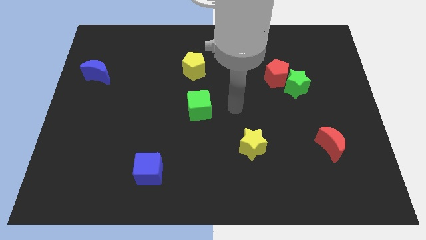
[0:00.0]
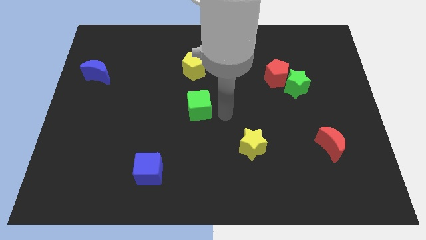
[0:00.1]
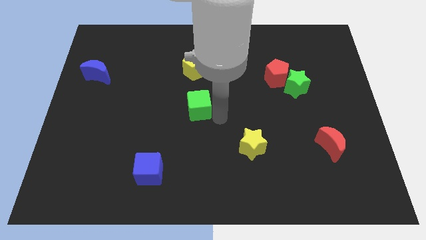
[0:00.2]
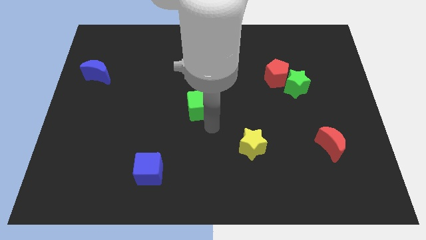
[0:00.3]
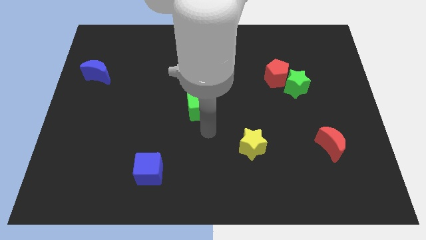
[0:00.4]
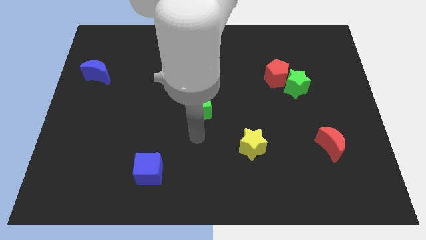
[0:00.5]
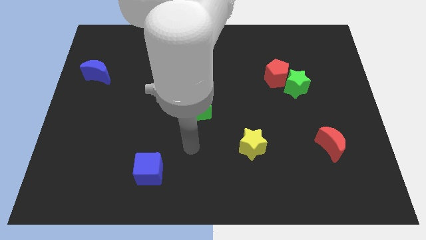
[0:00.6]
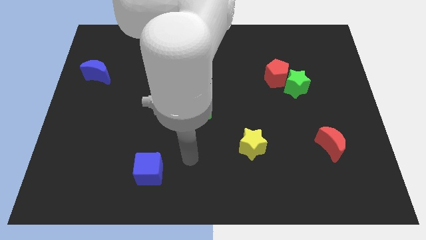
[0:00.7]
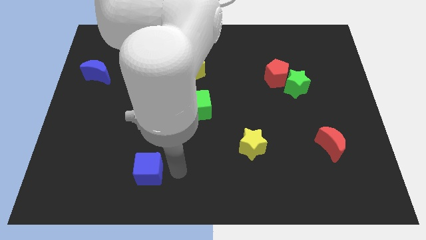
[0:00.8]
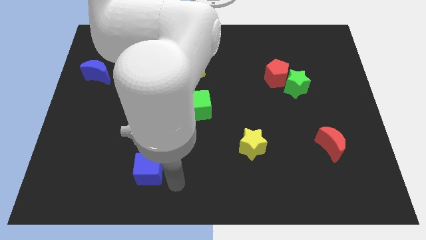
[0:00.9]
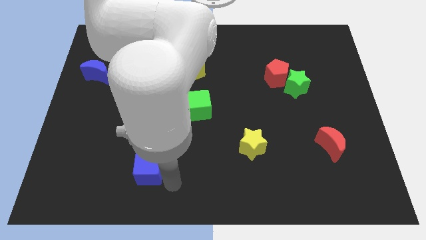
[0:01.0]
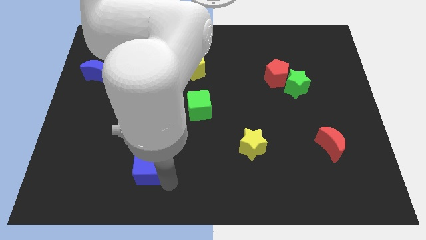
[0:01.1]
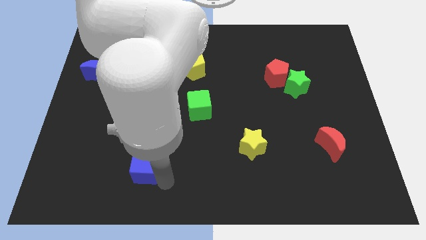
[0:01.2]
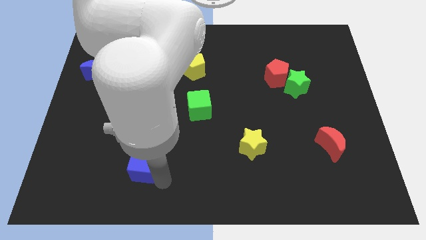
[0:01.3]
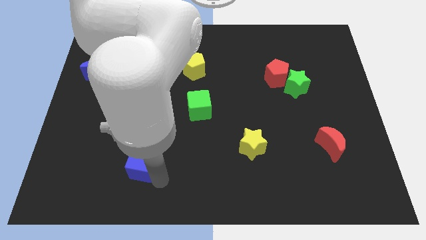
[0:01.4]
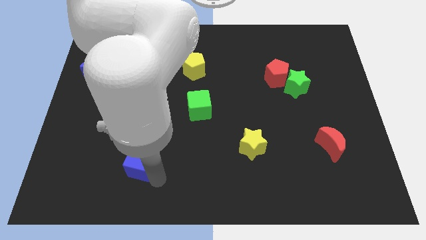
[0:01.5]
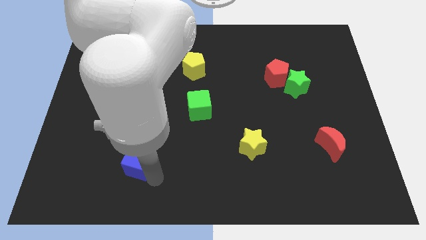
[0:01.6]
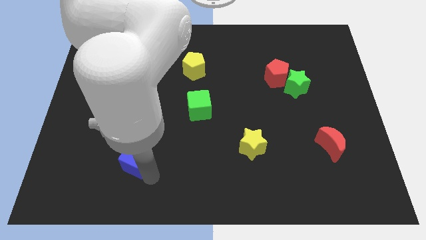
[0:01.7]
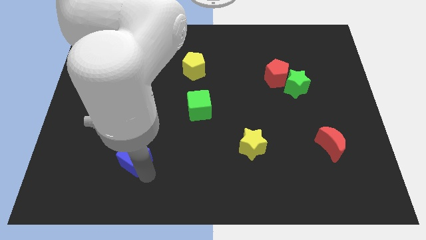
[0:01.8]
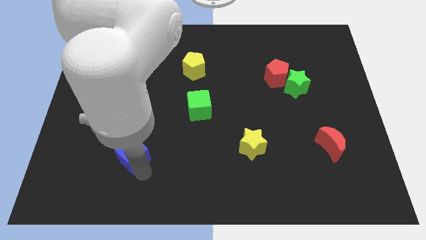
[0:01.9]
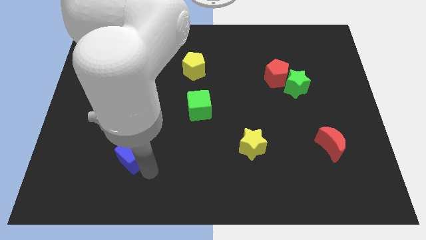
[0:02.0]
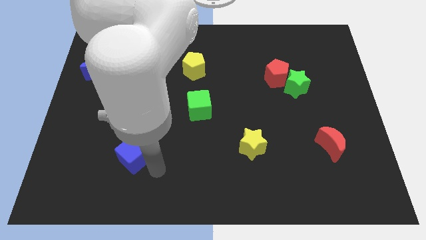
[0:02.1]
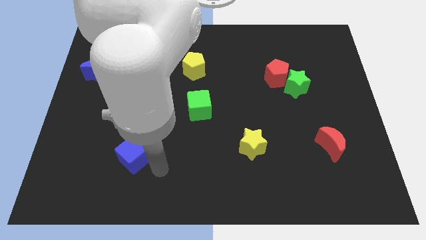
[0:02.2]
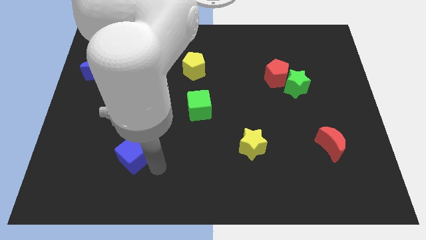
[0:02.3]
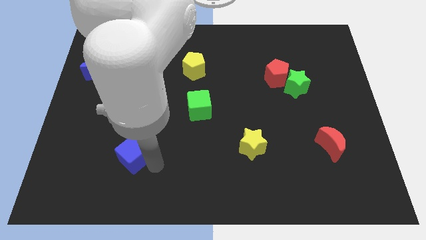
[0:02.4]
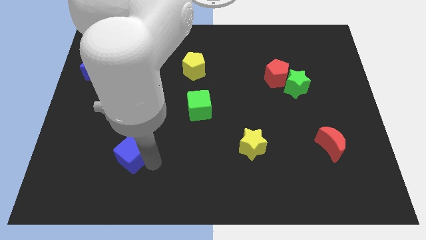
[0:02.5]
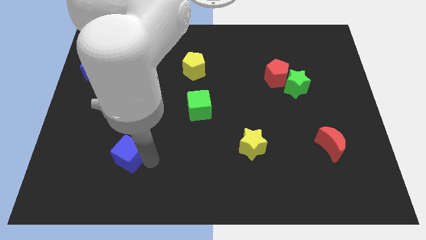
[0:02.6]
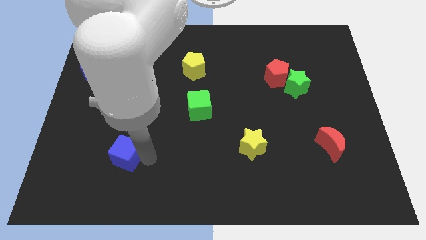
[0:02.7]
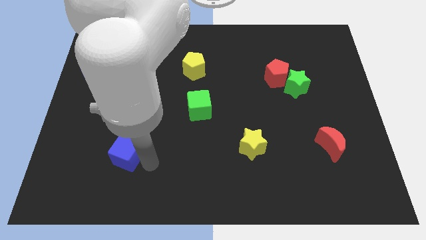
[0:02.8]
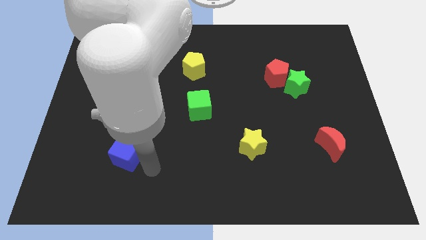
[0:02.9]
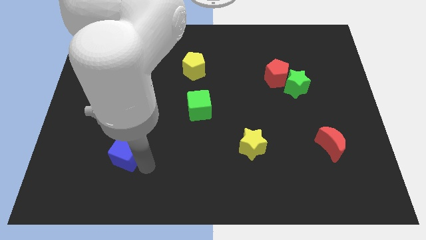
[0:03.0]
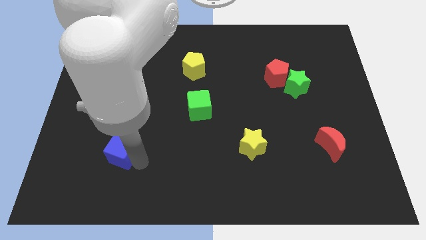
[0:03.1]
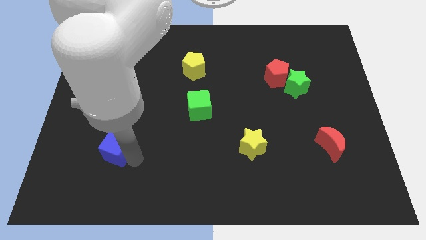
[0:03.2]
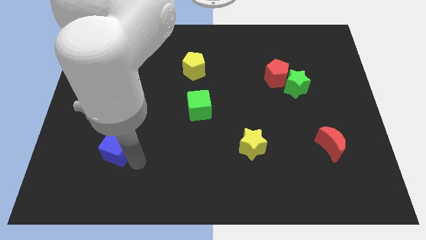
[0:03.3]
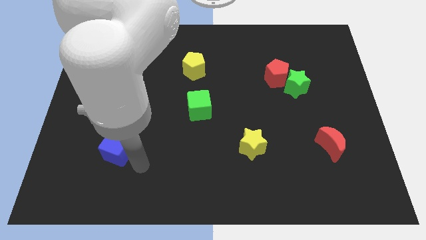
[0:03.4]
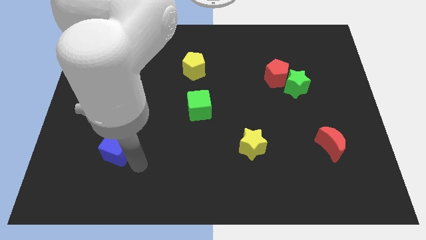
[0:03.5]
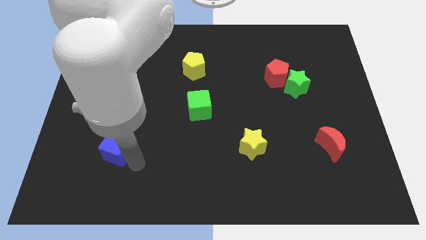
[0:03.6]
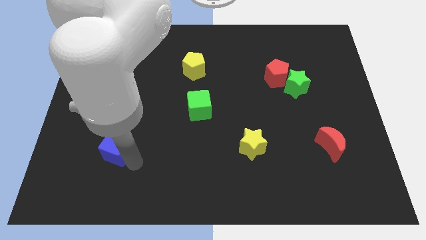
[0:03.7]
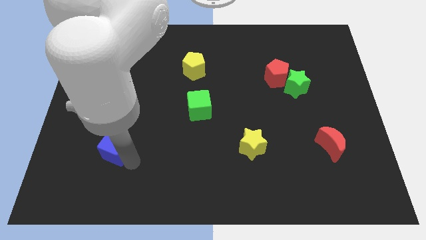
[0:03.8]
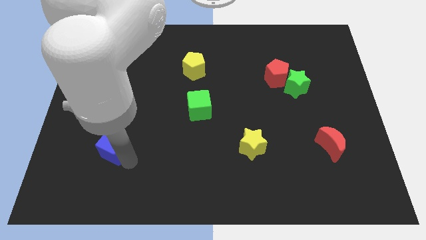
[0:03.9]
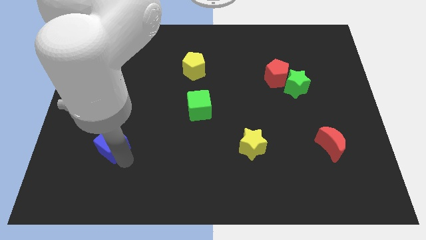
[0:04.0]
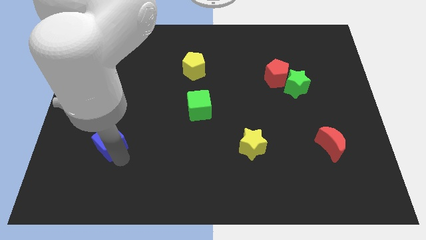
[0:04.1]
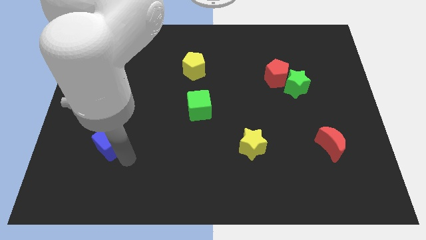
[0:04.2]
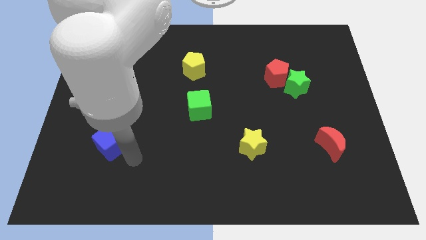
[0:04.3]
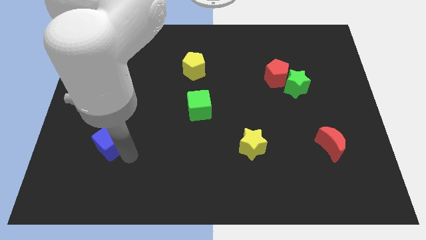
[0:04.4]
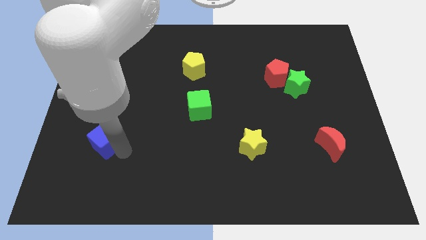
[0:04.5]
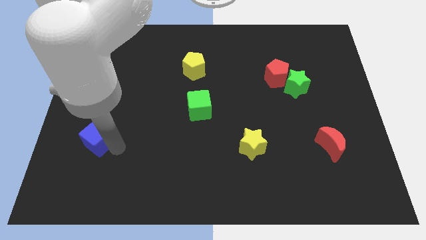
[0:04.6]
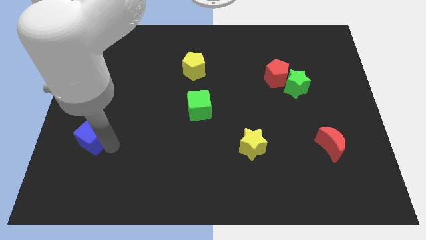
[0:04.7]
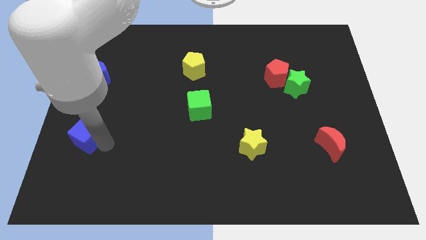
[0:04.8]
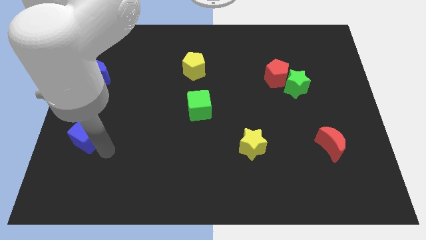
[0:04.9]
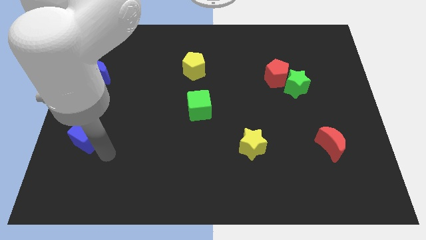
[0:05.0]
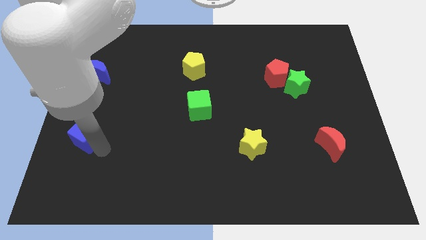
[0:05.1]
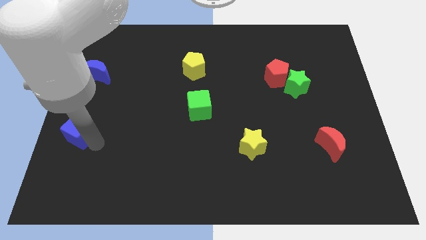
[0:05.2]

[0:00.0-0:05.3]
push the blue cube to the center left

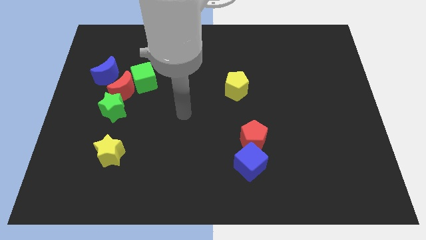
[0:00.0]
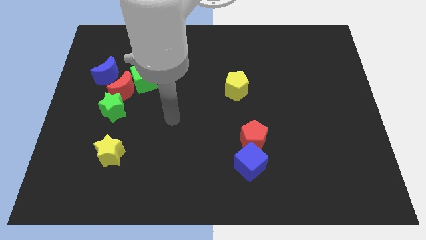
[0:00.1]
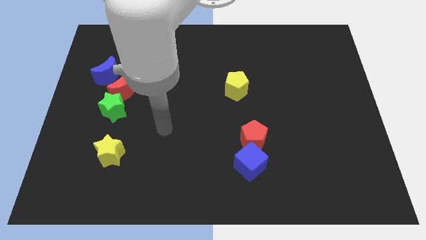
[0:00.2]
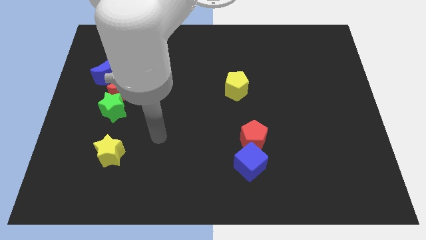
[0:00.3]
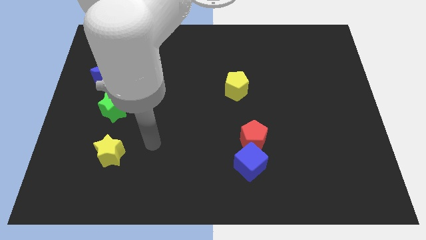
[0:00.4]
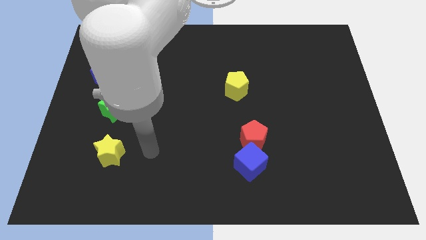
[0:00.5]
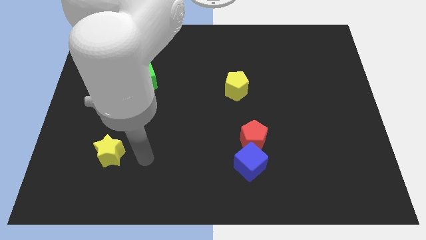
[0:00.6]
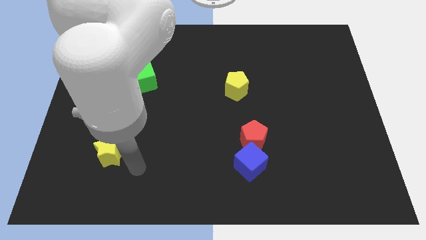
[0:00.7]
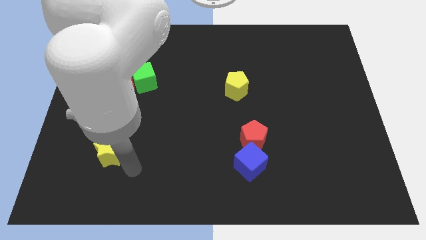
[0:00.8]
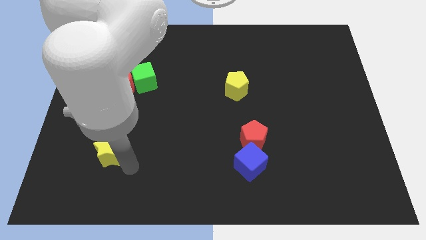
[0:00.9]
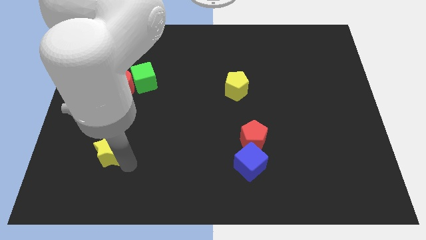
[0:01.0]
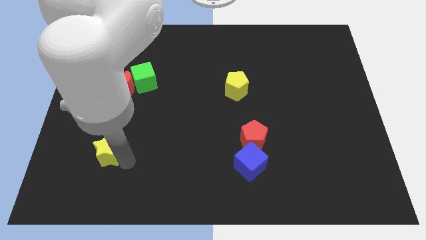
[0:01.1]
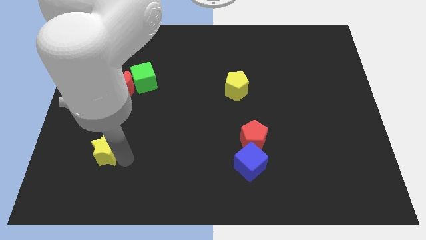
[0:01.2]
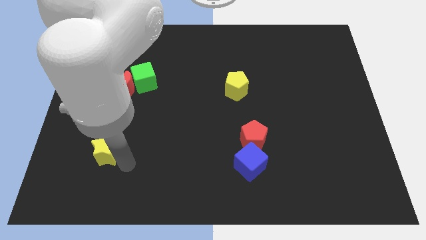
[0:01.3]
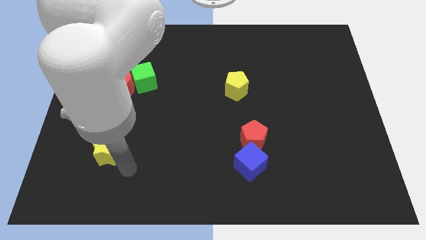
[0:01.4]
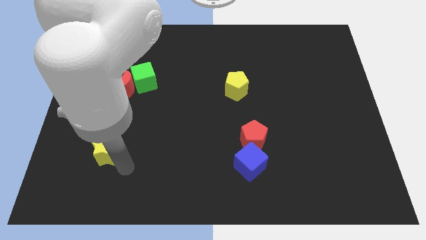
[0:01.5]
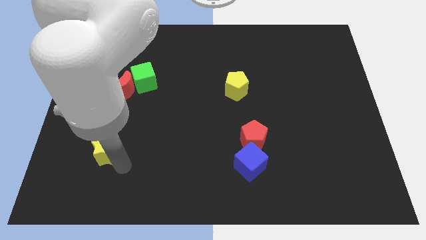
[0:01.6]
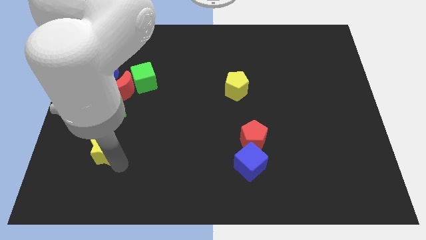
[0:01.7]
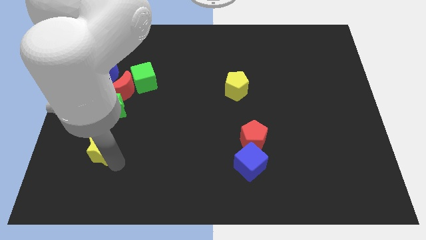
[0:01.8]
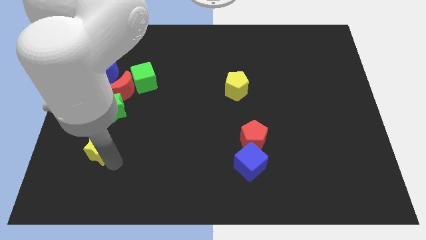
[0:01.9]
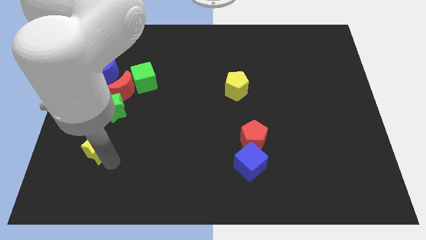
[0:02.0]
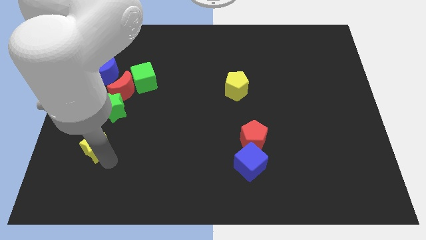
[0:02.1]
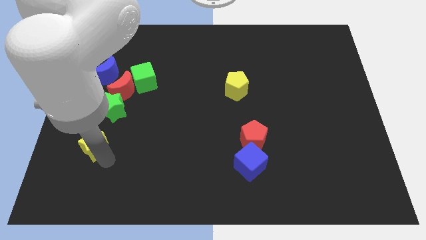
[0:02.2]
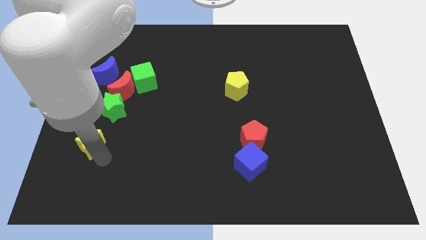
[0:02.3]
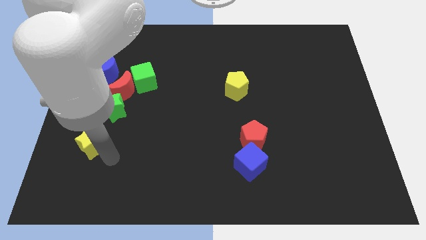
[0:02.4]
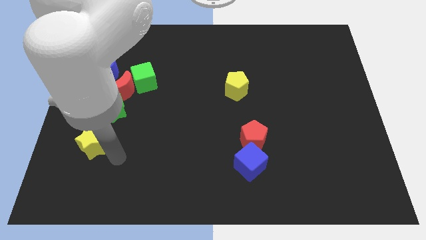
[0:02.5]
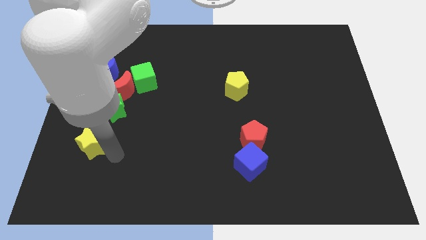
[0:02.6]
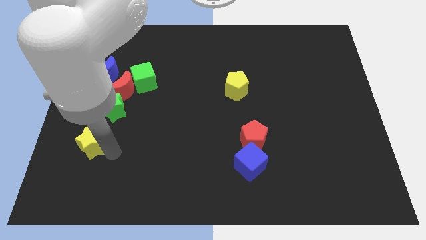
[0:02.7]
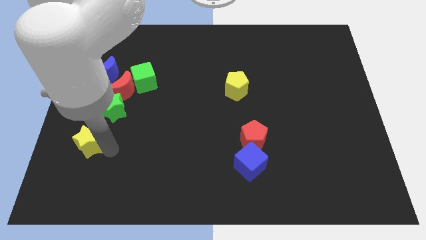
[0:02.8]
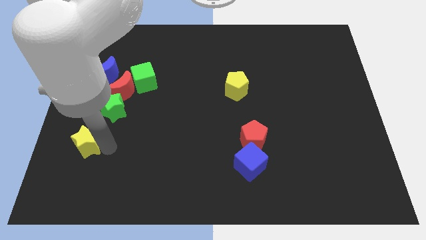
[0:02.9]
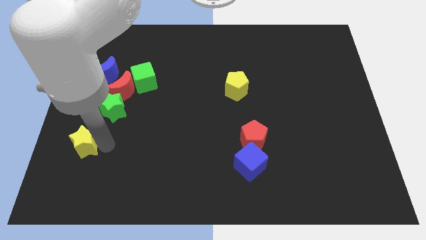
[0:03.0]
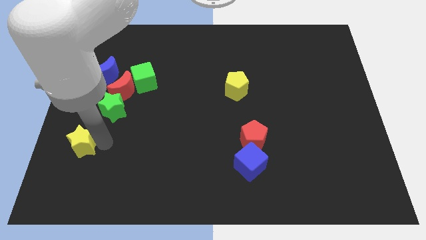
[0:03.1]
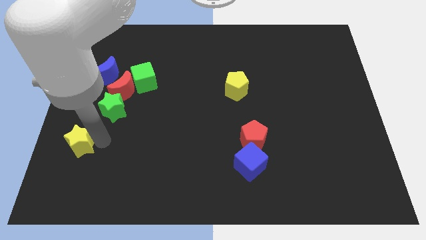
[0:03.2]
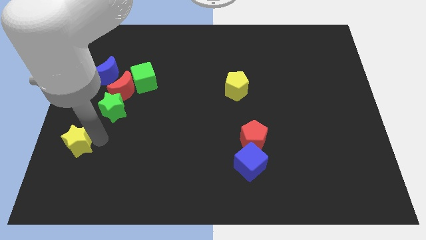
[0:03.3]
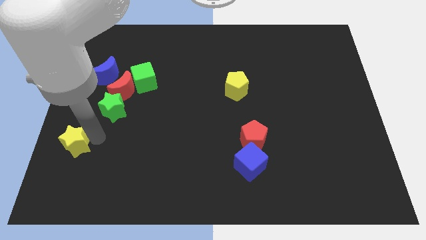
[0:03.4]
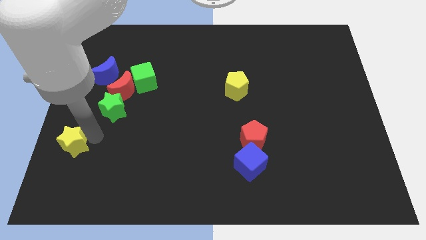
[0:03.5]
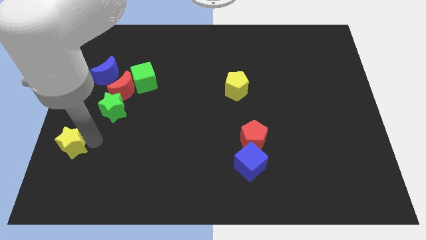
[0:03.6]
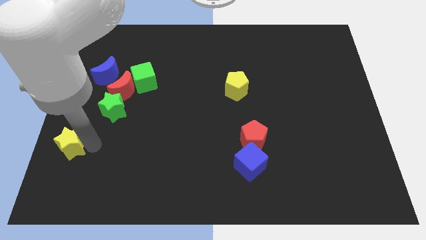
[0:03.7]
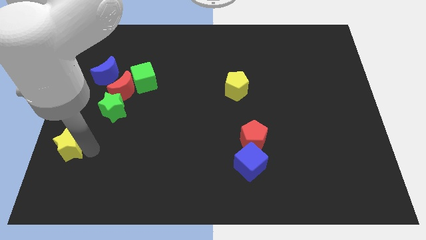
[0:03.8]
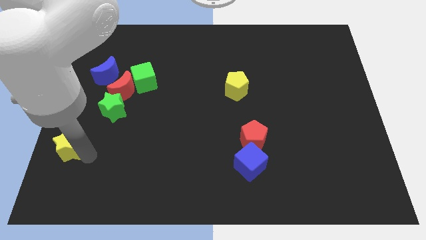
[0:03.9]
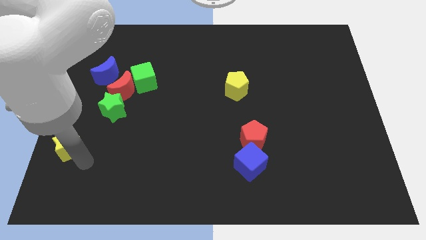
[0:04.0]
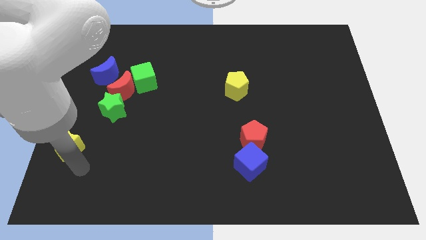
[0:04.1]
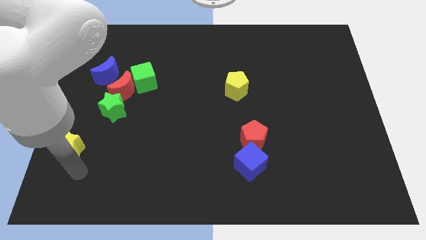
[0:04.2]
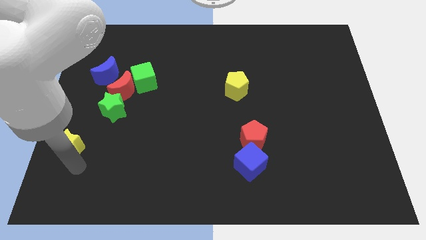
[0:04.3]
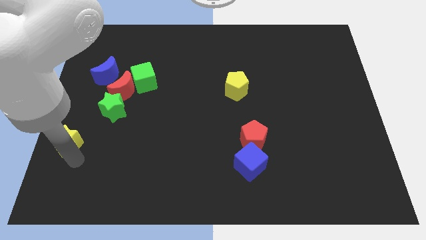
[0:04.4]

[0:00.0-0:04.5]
push the yellow star to the left side of the board
